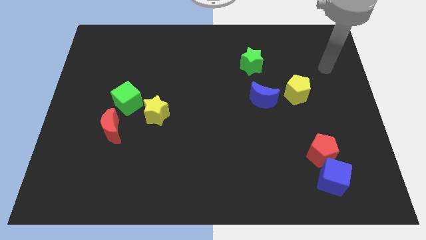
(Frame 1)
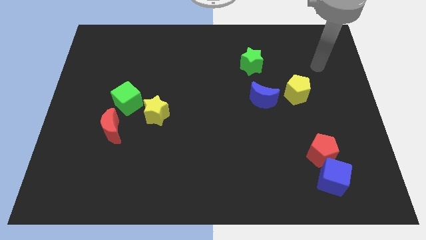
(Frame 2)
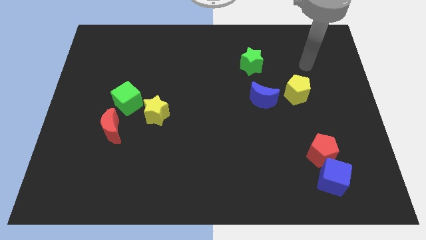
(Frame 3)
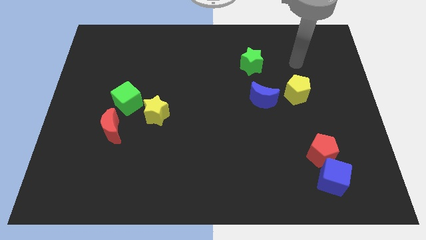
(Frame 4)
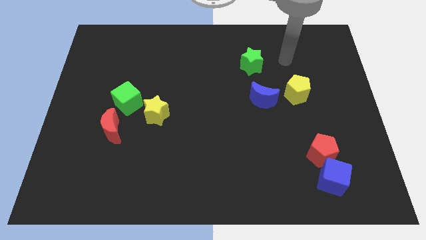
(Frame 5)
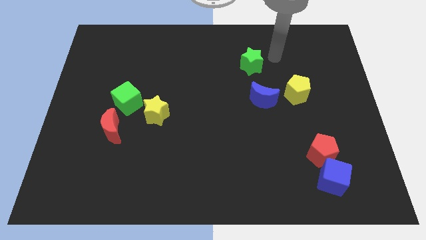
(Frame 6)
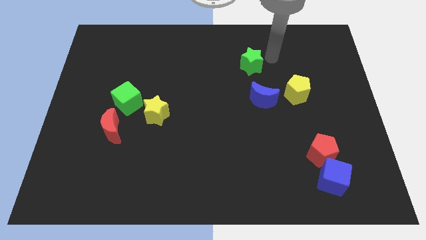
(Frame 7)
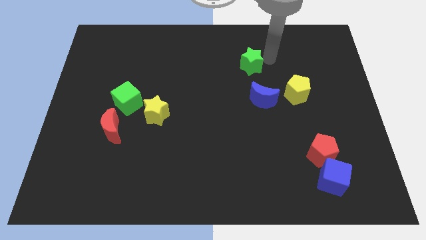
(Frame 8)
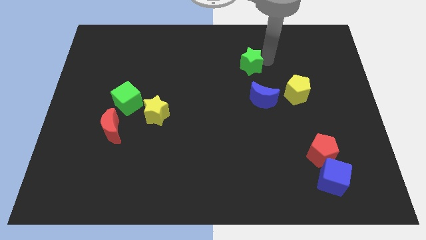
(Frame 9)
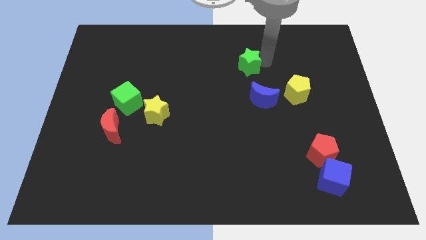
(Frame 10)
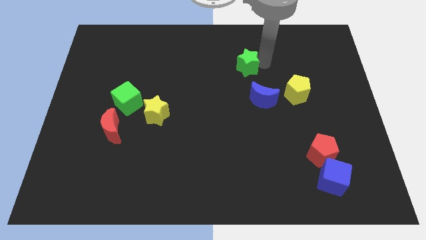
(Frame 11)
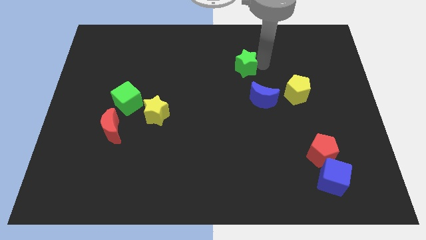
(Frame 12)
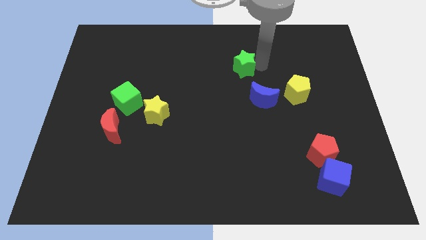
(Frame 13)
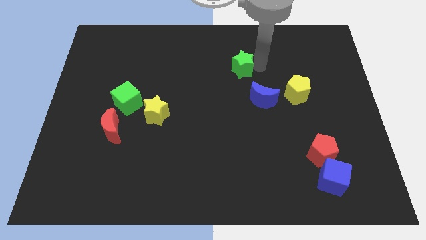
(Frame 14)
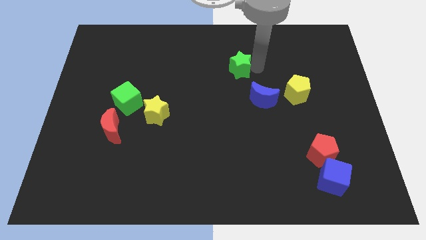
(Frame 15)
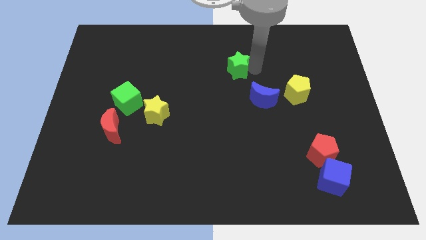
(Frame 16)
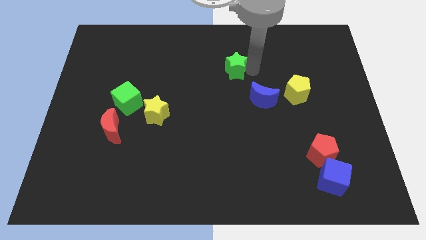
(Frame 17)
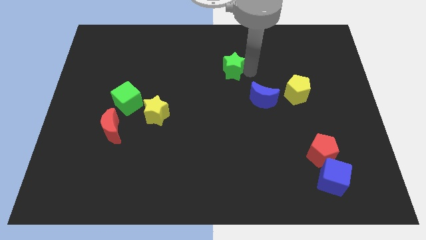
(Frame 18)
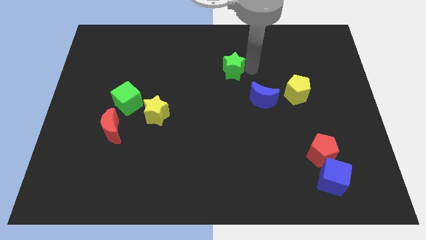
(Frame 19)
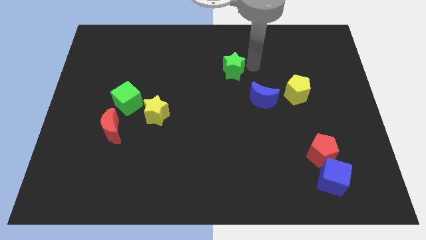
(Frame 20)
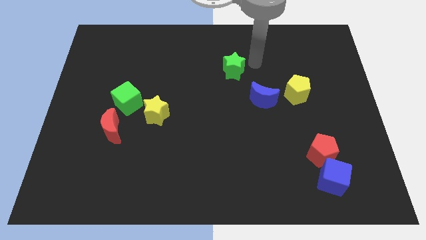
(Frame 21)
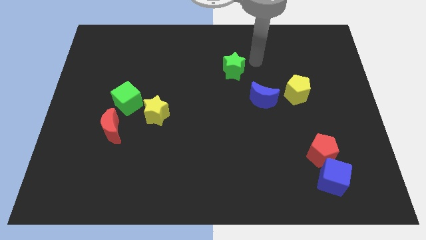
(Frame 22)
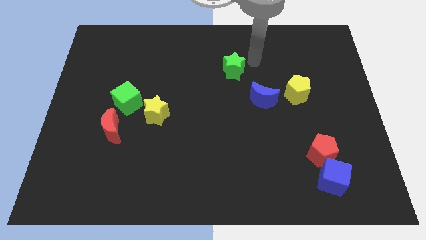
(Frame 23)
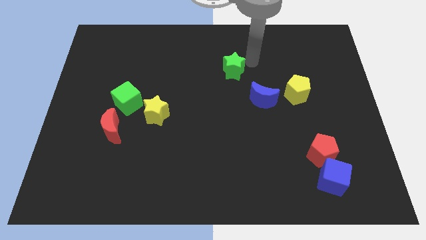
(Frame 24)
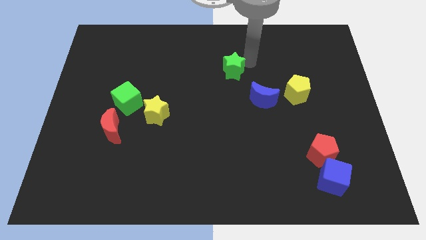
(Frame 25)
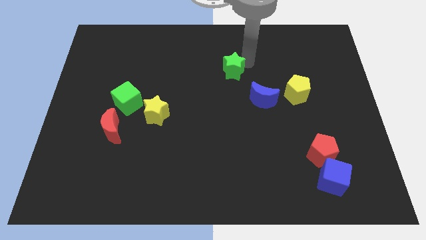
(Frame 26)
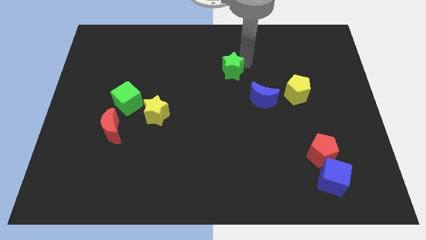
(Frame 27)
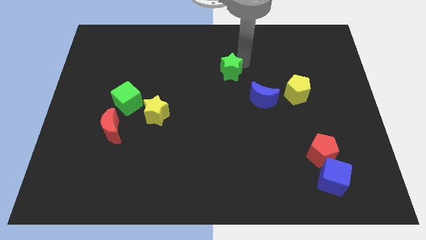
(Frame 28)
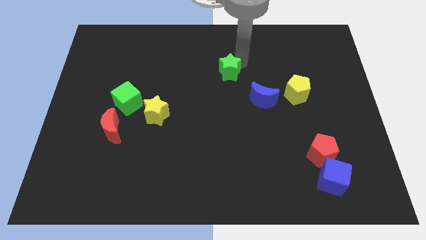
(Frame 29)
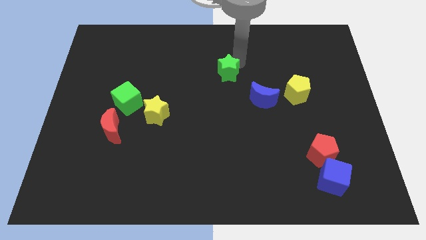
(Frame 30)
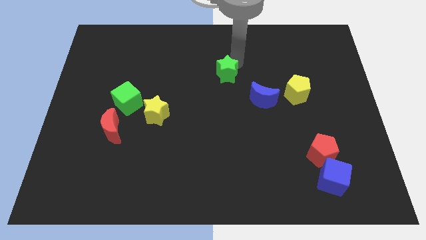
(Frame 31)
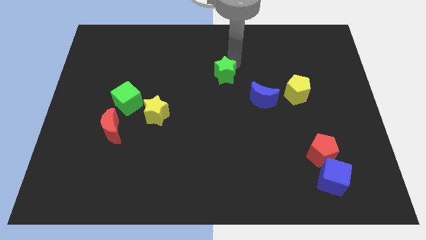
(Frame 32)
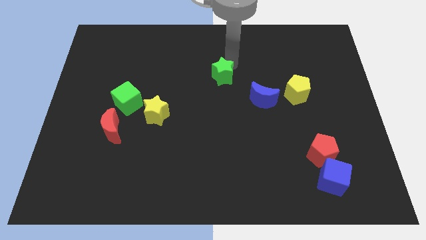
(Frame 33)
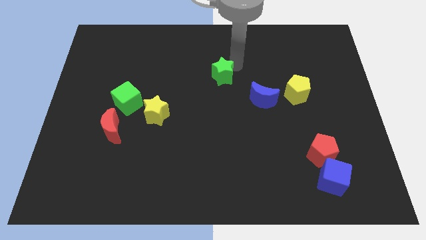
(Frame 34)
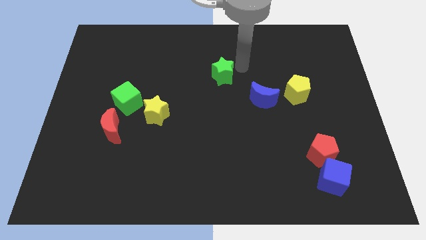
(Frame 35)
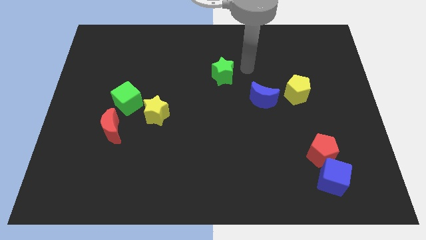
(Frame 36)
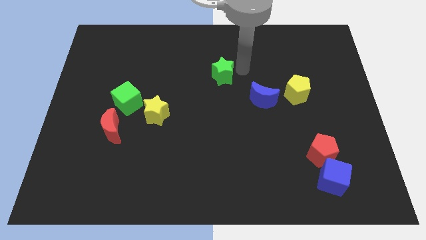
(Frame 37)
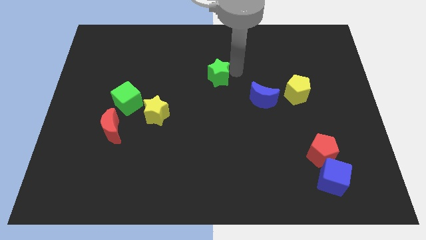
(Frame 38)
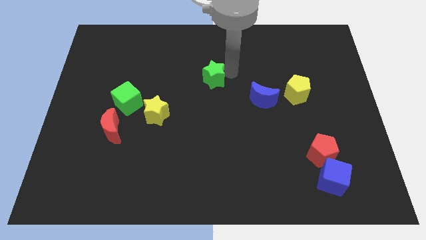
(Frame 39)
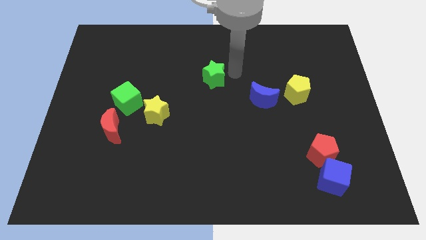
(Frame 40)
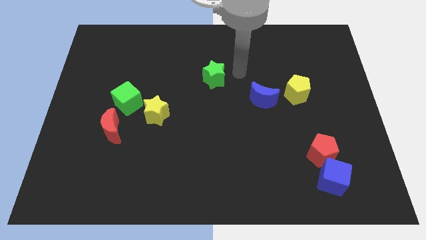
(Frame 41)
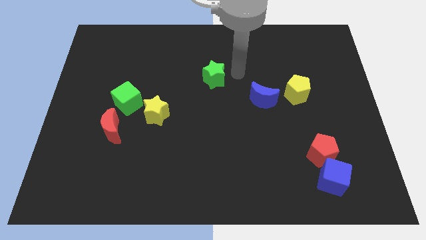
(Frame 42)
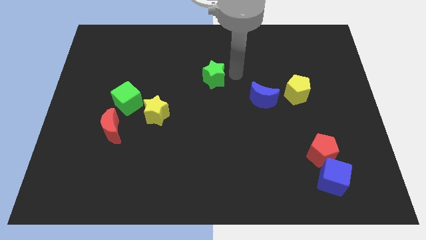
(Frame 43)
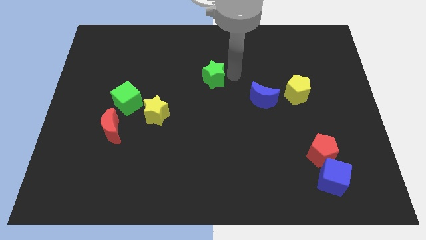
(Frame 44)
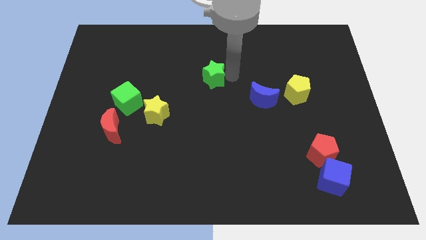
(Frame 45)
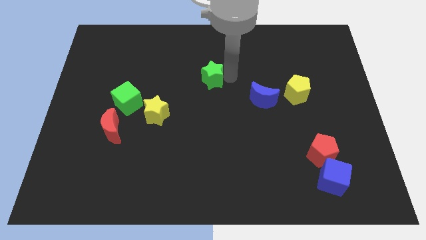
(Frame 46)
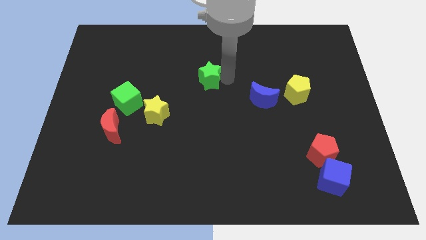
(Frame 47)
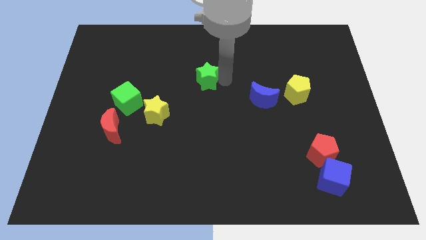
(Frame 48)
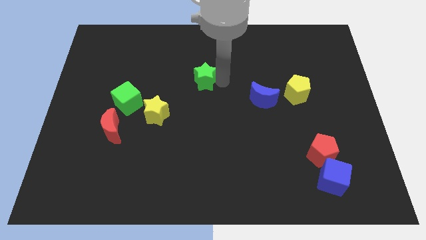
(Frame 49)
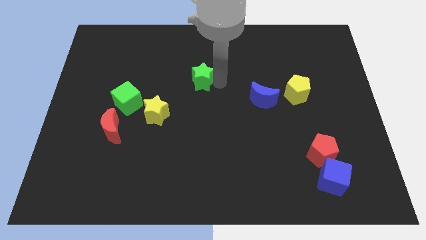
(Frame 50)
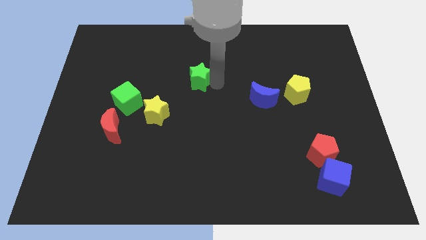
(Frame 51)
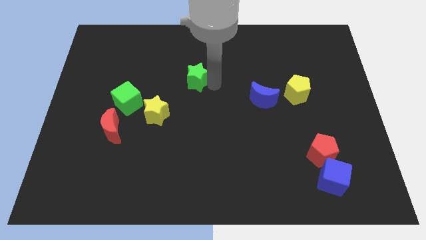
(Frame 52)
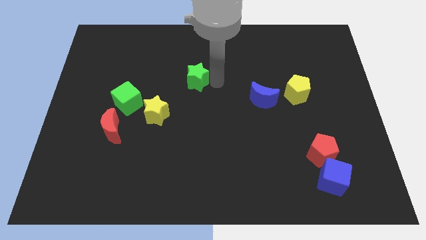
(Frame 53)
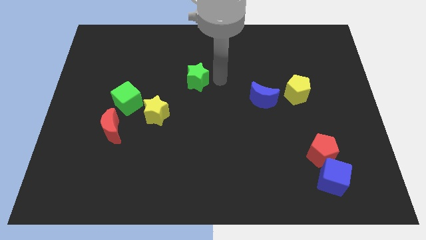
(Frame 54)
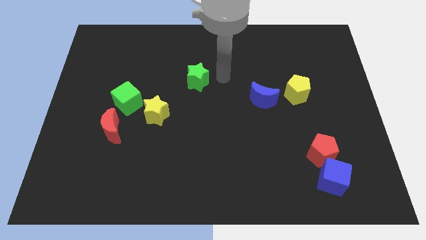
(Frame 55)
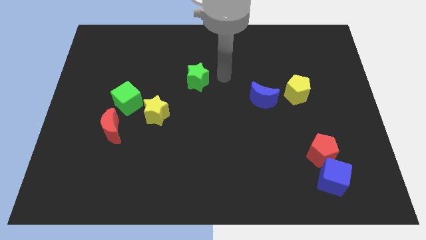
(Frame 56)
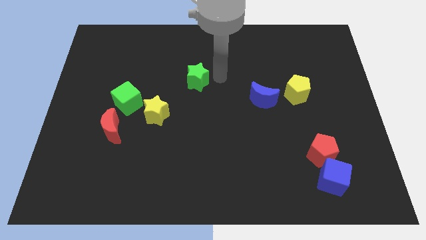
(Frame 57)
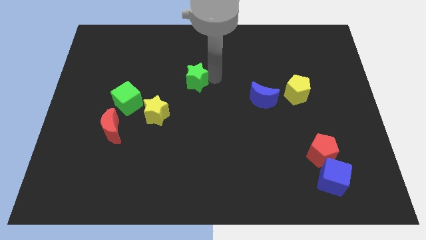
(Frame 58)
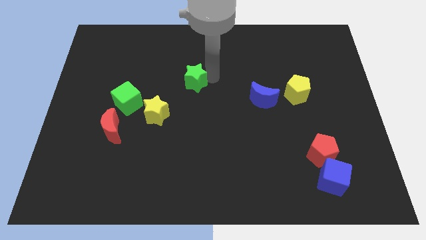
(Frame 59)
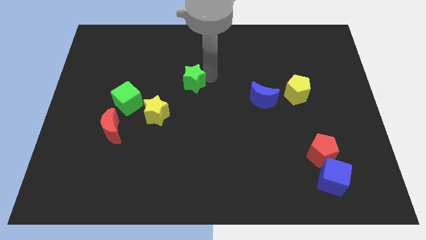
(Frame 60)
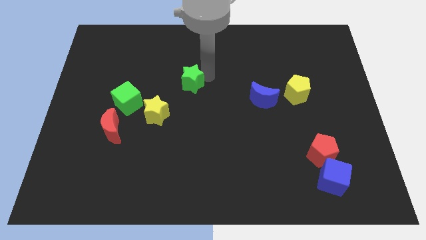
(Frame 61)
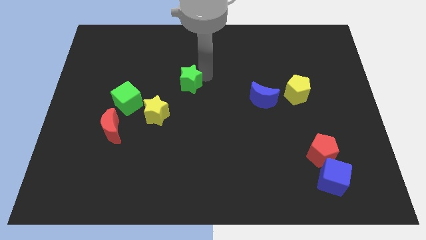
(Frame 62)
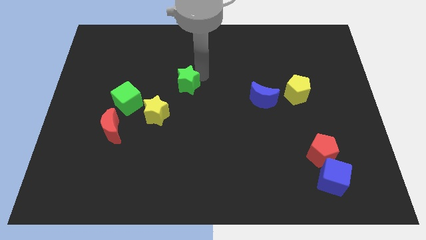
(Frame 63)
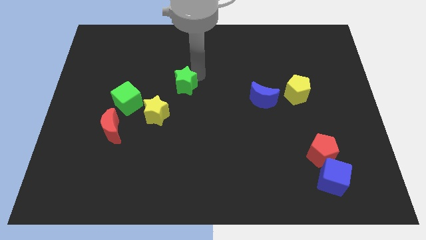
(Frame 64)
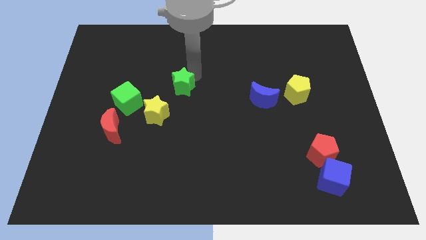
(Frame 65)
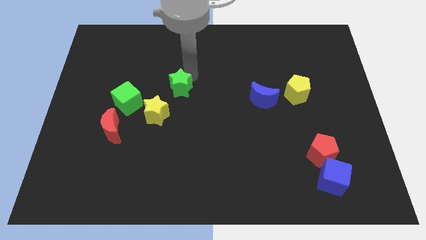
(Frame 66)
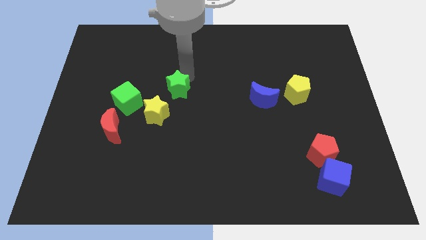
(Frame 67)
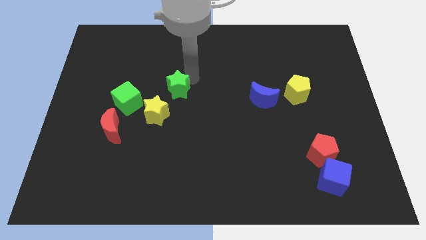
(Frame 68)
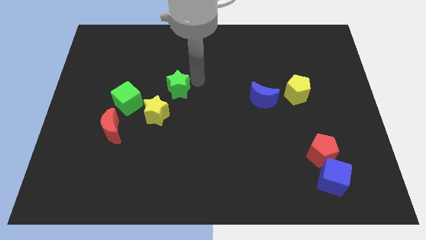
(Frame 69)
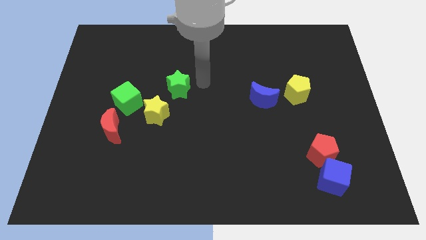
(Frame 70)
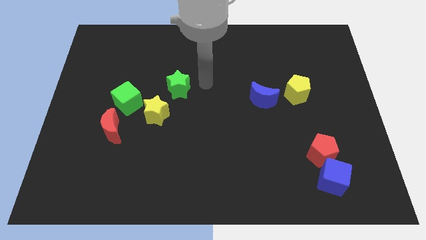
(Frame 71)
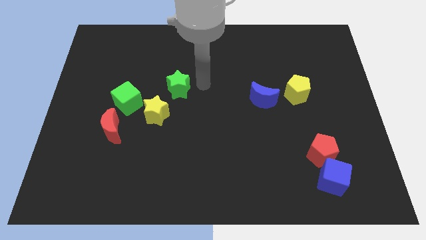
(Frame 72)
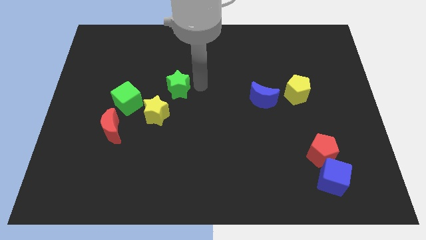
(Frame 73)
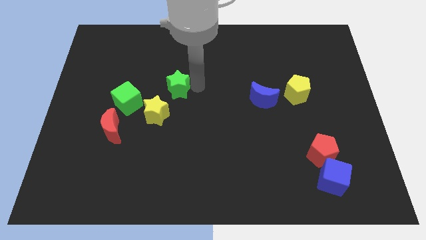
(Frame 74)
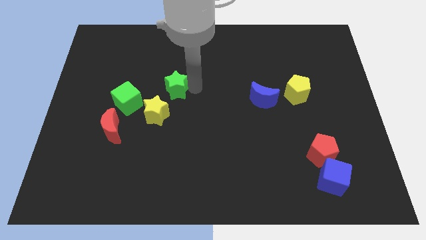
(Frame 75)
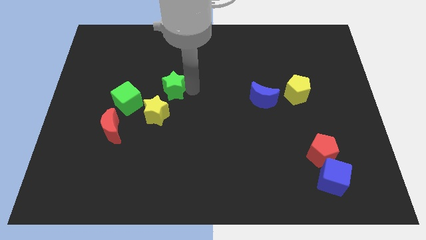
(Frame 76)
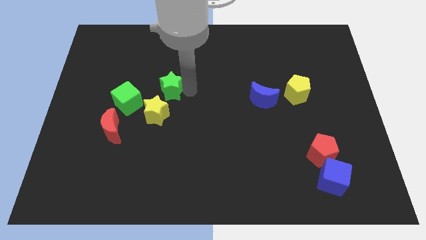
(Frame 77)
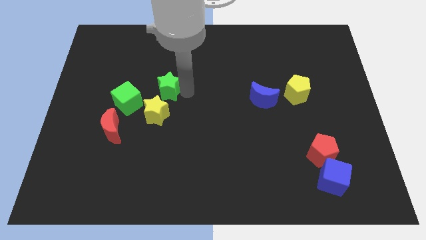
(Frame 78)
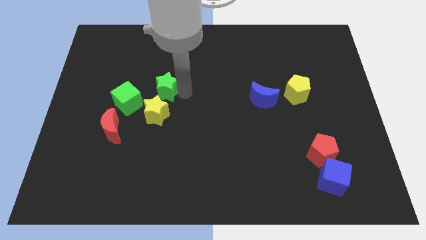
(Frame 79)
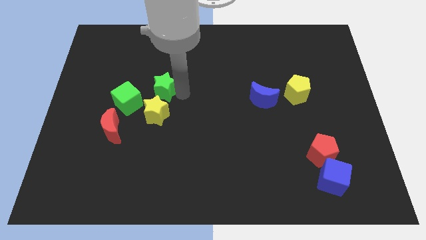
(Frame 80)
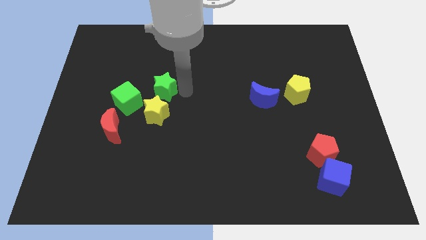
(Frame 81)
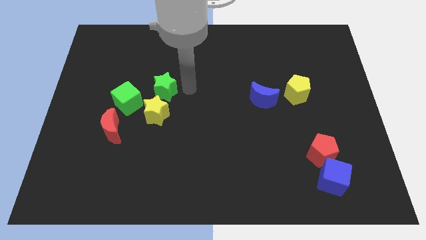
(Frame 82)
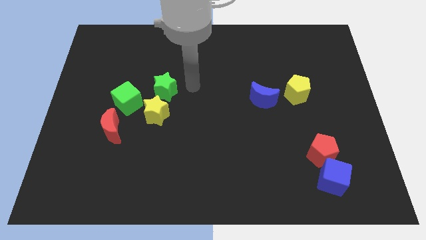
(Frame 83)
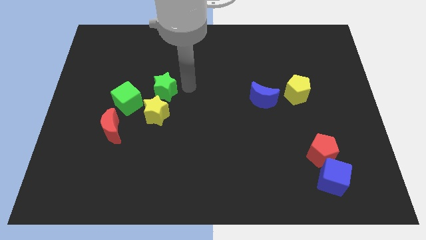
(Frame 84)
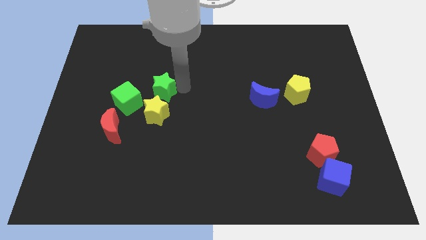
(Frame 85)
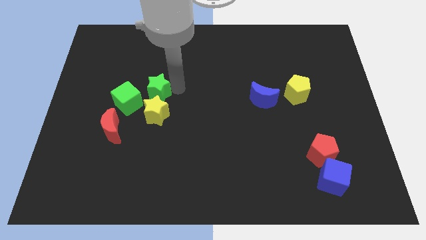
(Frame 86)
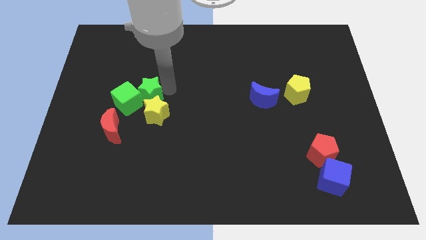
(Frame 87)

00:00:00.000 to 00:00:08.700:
move the green star to the green cube
